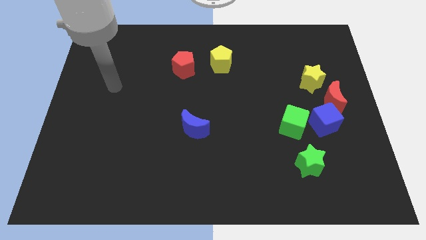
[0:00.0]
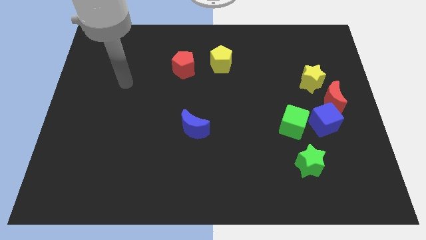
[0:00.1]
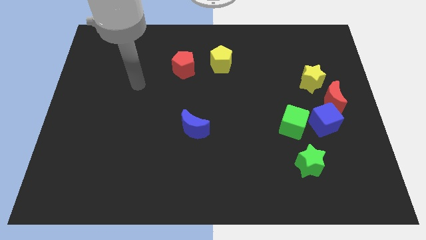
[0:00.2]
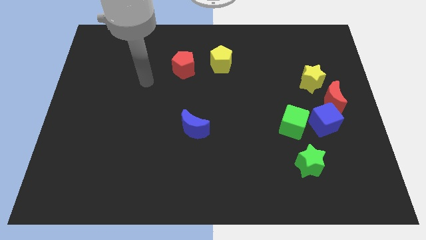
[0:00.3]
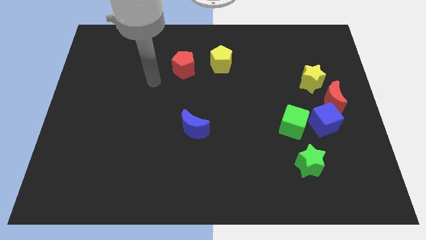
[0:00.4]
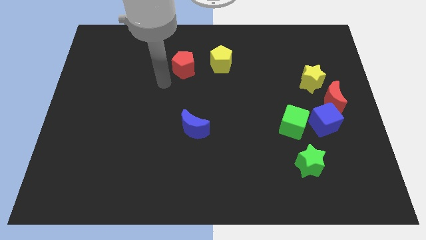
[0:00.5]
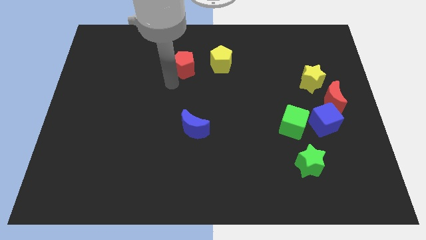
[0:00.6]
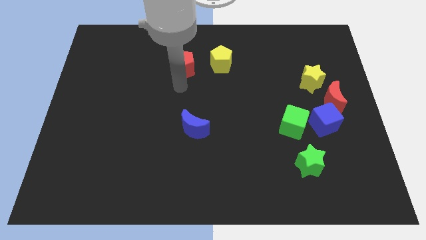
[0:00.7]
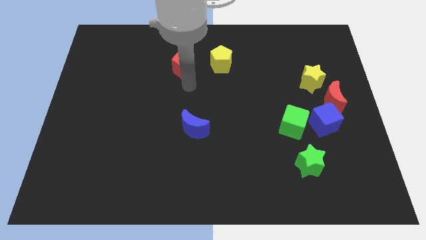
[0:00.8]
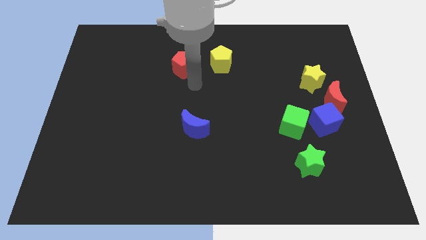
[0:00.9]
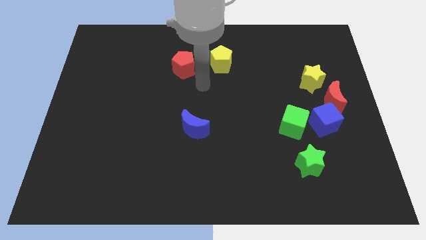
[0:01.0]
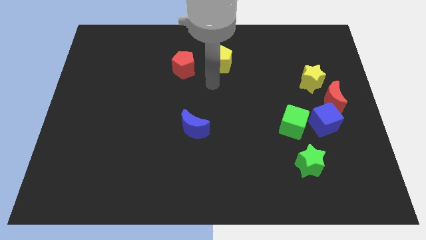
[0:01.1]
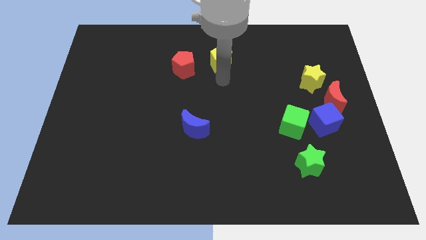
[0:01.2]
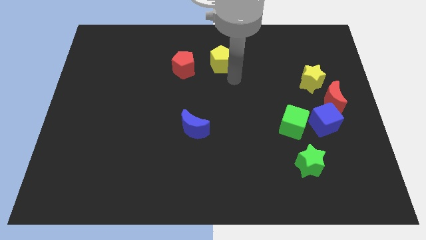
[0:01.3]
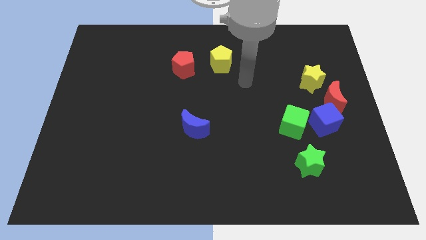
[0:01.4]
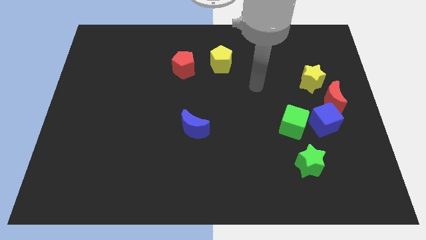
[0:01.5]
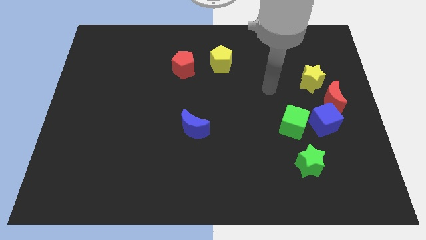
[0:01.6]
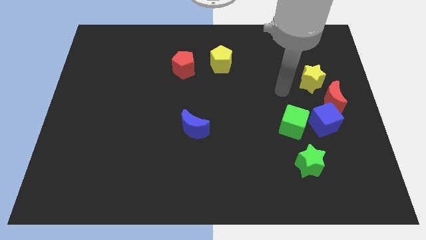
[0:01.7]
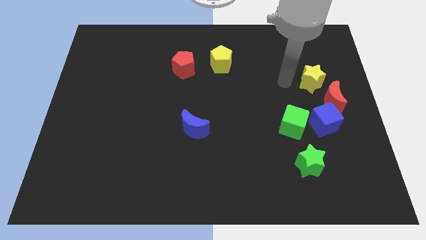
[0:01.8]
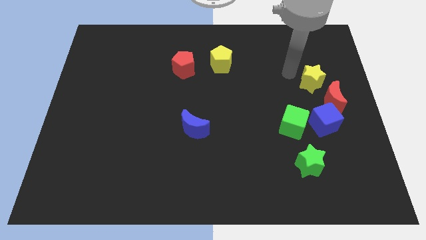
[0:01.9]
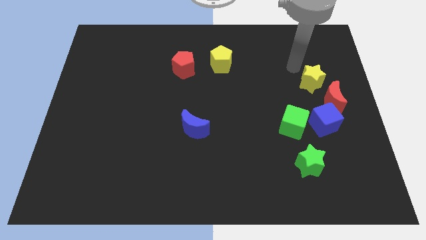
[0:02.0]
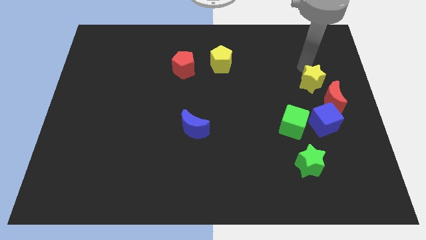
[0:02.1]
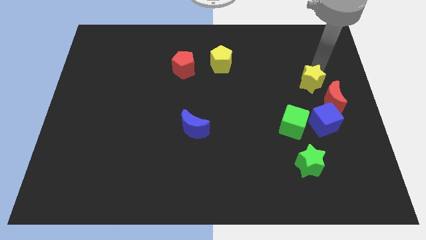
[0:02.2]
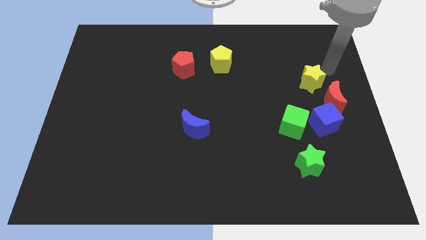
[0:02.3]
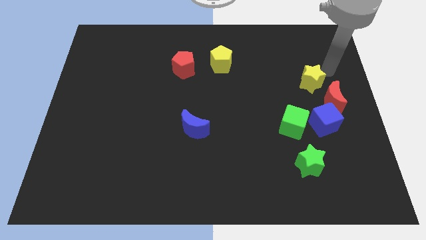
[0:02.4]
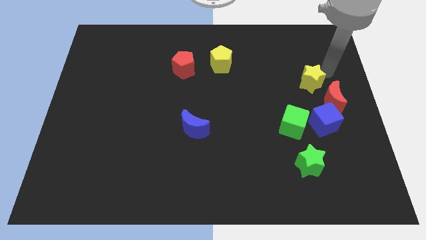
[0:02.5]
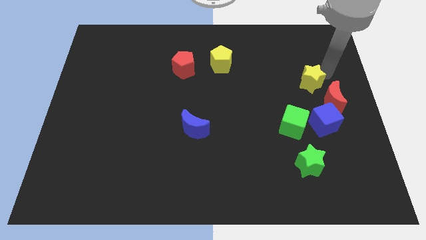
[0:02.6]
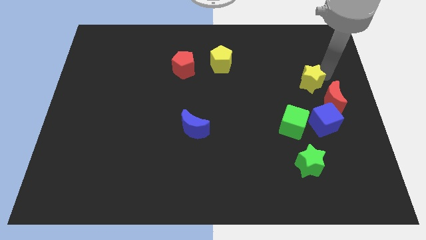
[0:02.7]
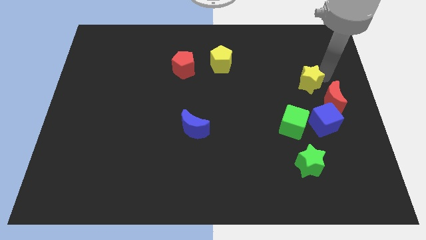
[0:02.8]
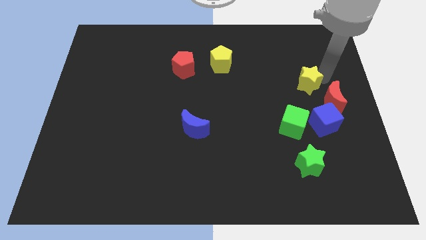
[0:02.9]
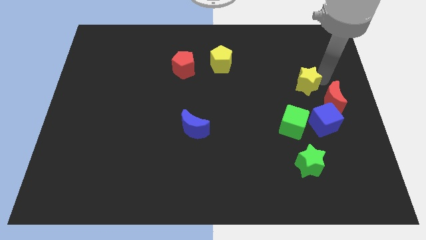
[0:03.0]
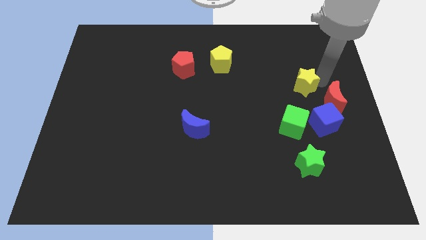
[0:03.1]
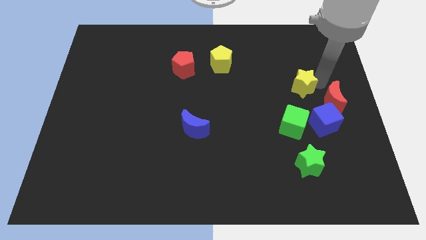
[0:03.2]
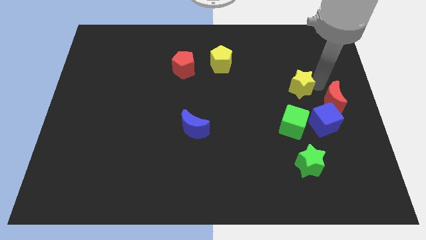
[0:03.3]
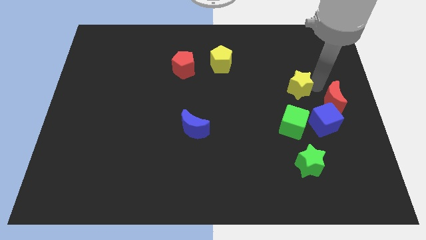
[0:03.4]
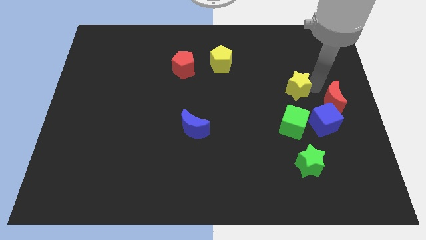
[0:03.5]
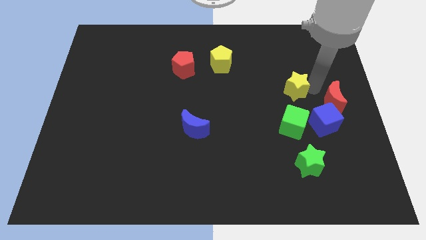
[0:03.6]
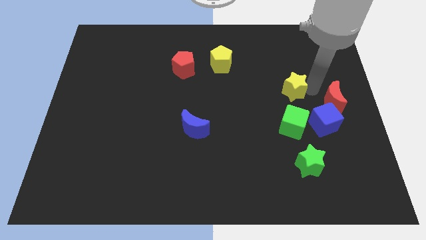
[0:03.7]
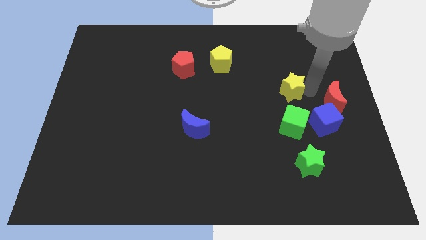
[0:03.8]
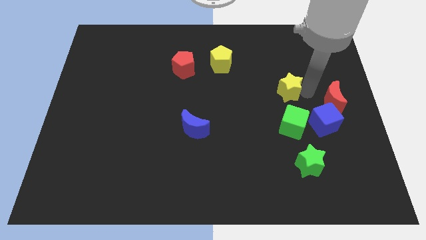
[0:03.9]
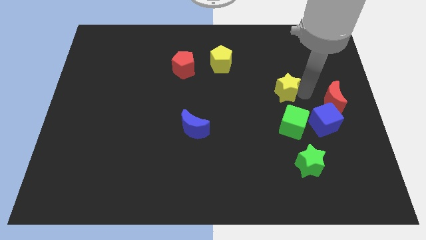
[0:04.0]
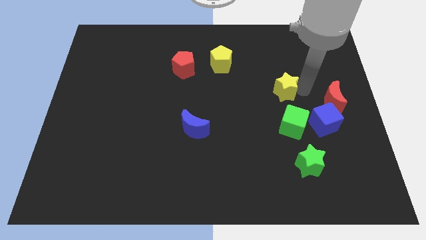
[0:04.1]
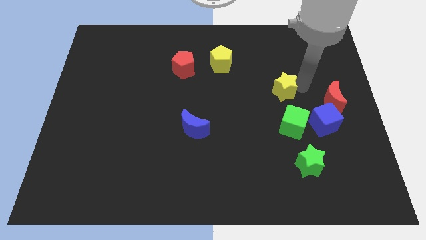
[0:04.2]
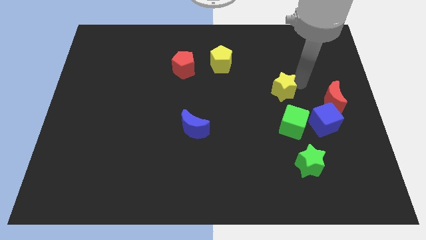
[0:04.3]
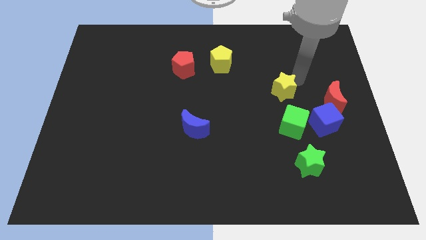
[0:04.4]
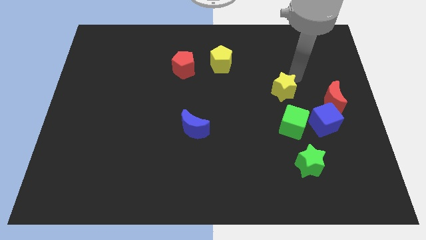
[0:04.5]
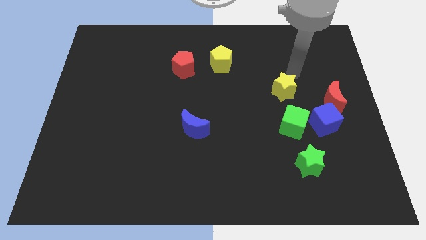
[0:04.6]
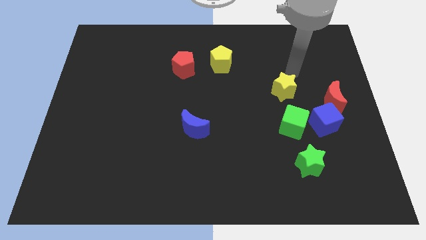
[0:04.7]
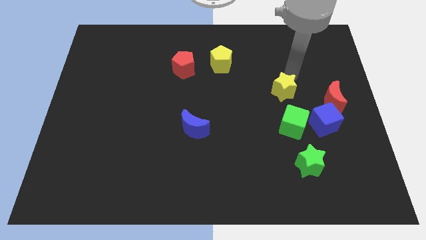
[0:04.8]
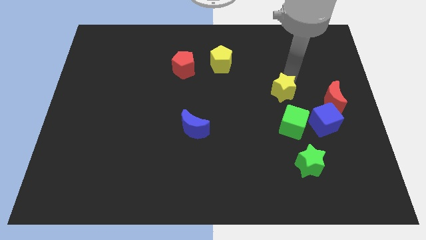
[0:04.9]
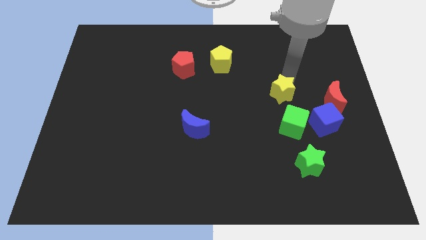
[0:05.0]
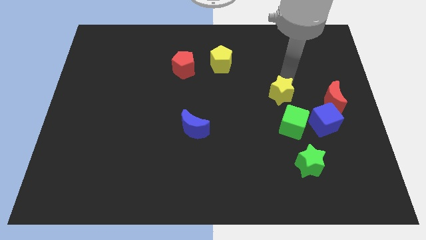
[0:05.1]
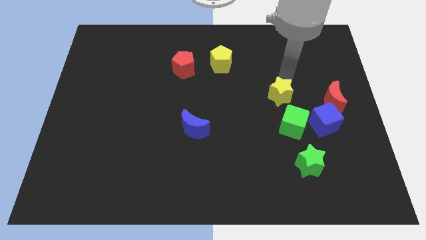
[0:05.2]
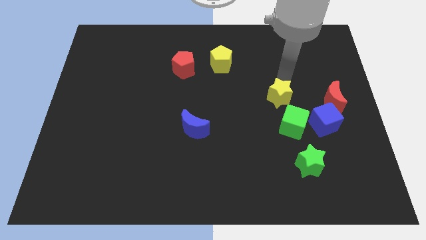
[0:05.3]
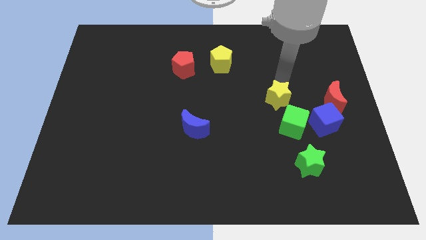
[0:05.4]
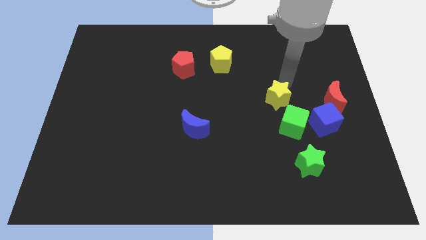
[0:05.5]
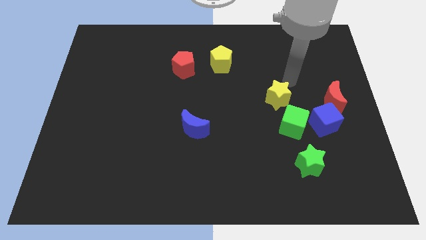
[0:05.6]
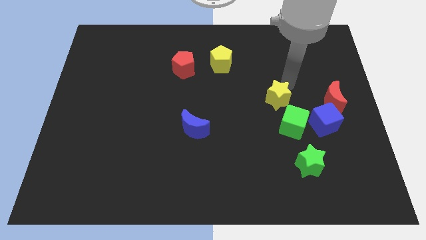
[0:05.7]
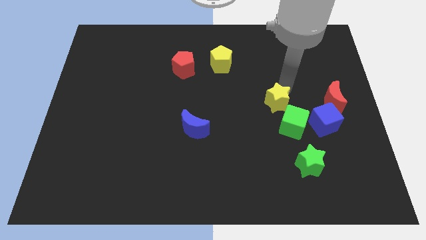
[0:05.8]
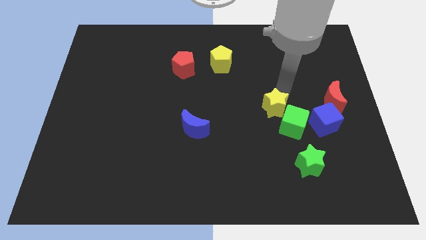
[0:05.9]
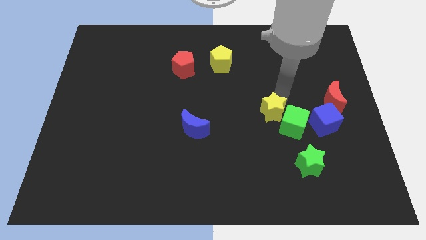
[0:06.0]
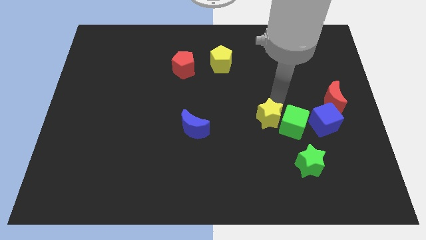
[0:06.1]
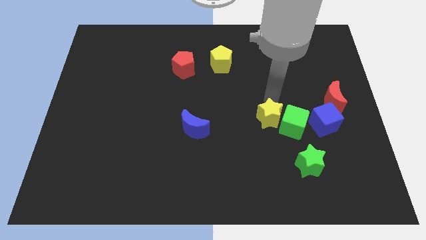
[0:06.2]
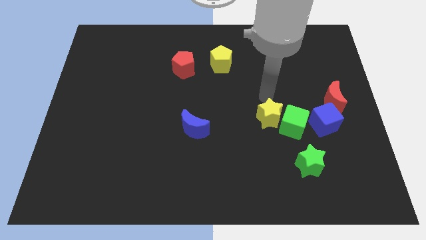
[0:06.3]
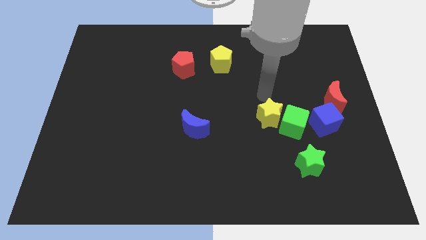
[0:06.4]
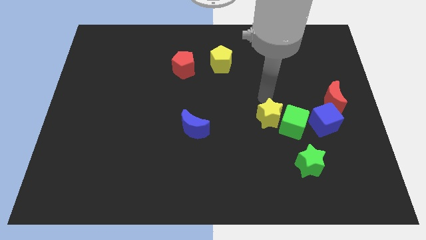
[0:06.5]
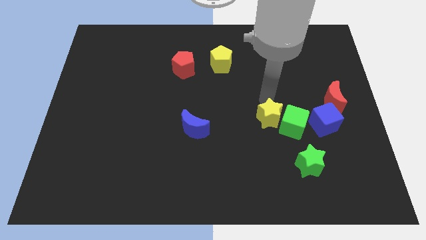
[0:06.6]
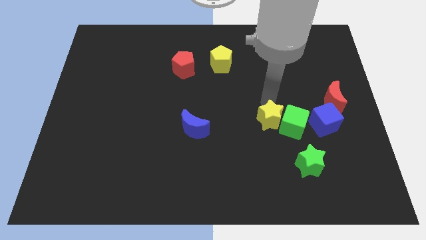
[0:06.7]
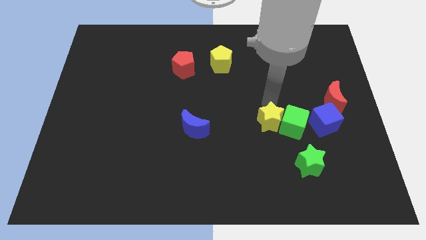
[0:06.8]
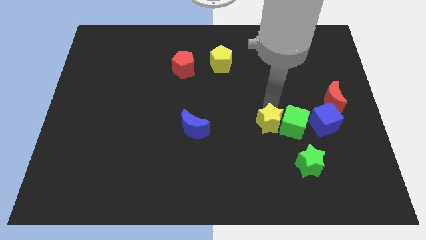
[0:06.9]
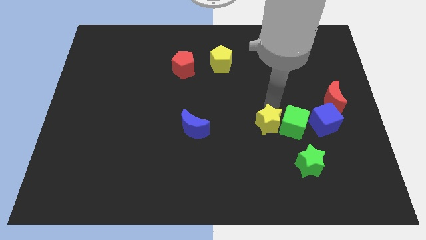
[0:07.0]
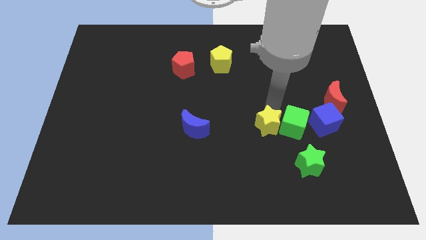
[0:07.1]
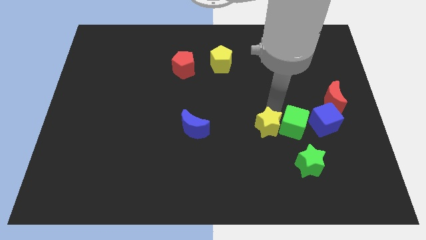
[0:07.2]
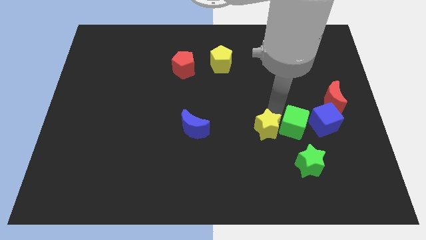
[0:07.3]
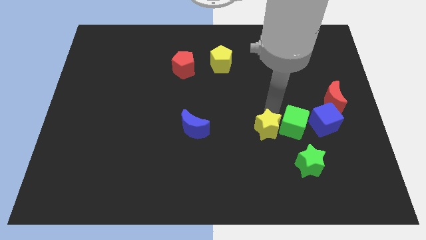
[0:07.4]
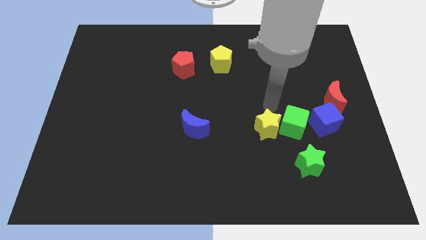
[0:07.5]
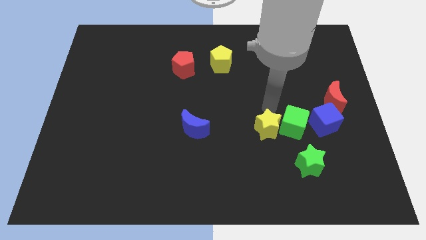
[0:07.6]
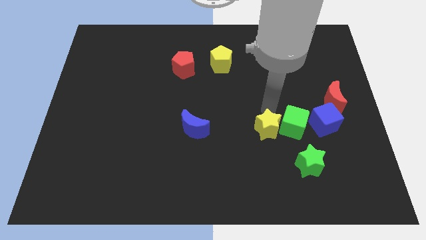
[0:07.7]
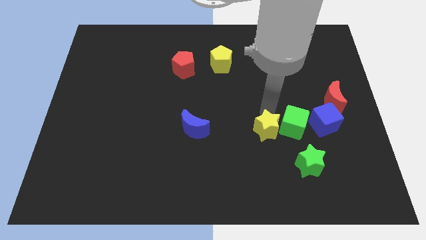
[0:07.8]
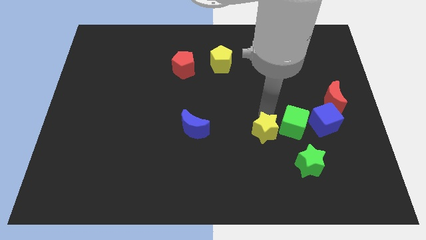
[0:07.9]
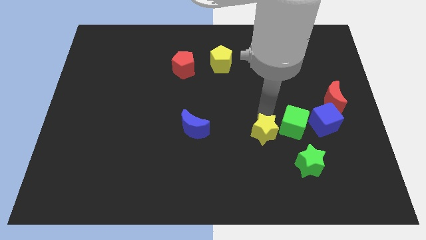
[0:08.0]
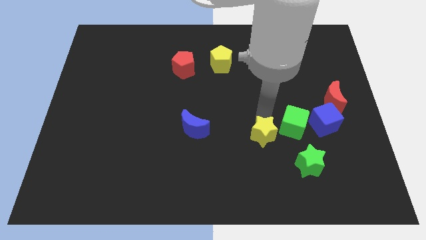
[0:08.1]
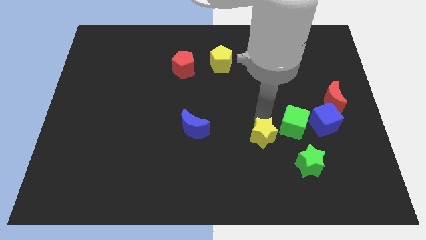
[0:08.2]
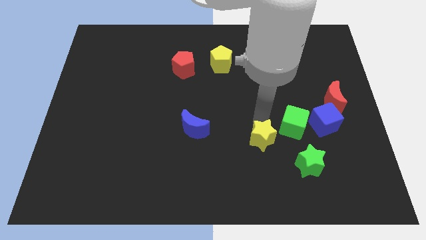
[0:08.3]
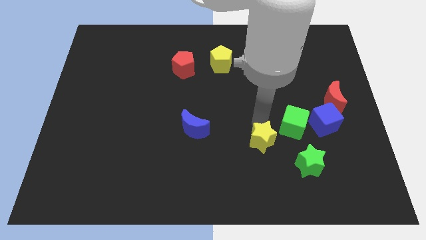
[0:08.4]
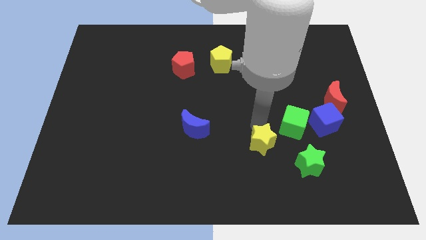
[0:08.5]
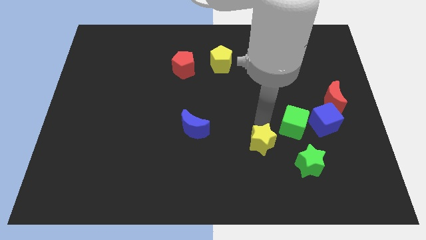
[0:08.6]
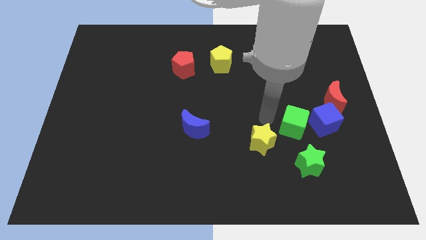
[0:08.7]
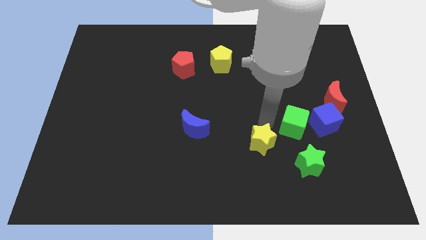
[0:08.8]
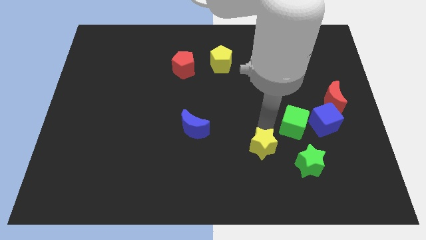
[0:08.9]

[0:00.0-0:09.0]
push the yellow star just left of the green star
